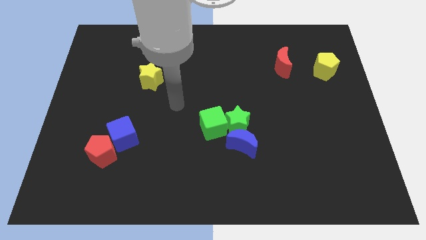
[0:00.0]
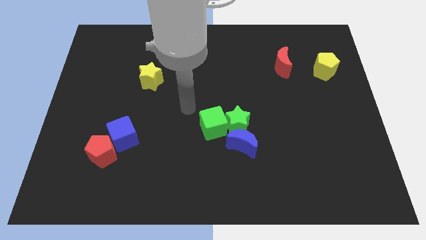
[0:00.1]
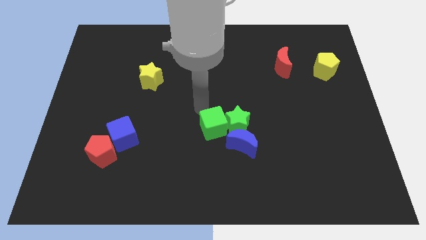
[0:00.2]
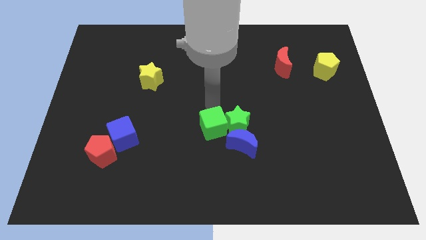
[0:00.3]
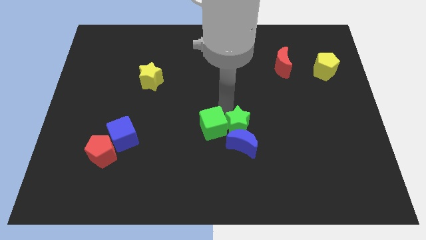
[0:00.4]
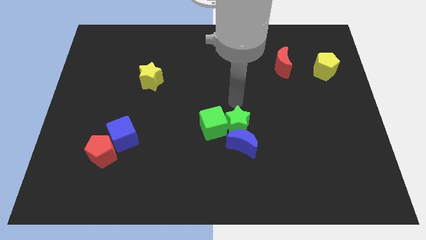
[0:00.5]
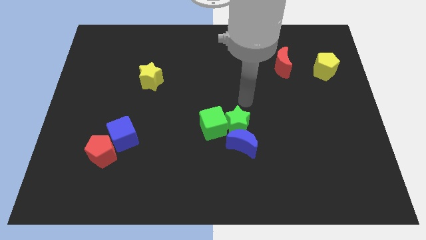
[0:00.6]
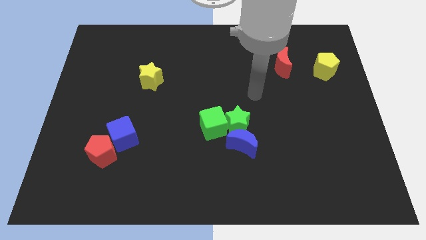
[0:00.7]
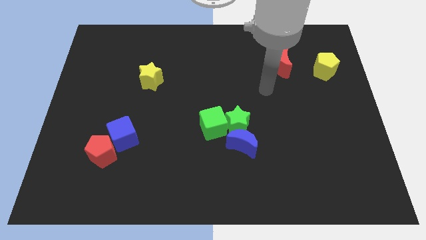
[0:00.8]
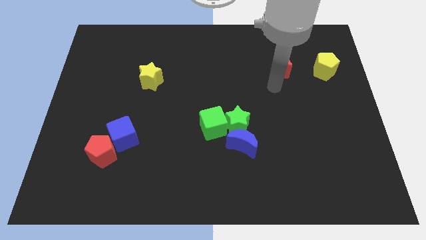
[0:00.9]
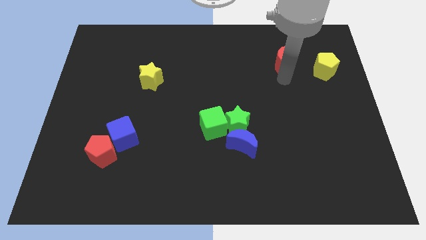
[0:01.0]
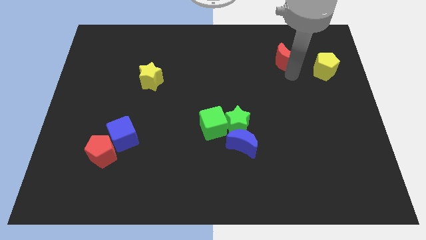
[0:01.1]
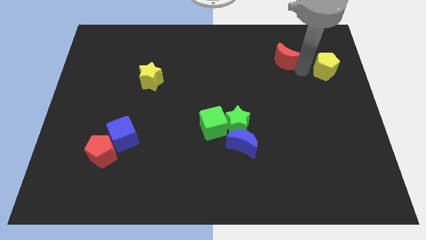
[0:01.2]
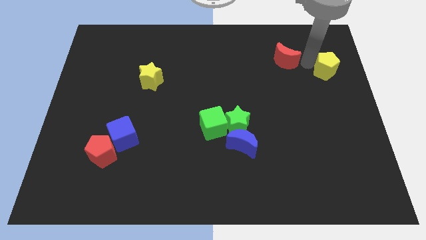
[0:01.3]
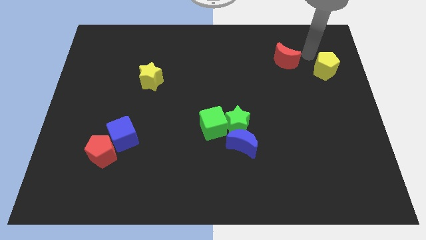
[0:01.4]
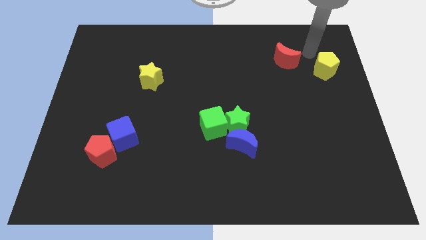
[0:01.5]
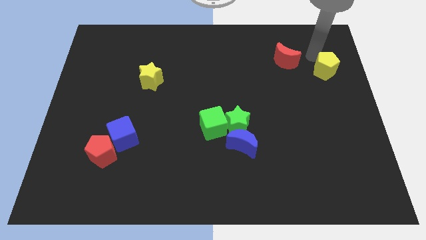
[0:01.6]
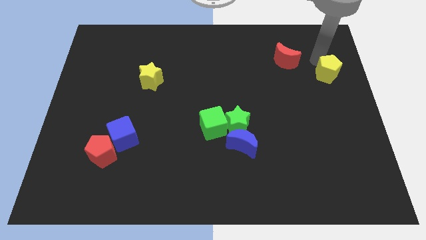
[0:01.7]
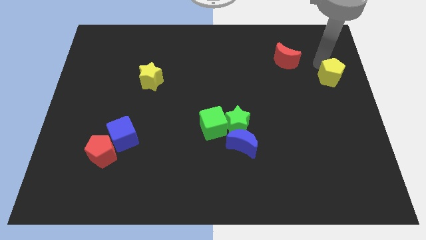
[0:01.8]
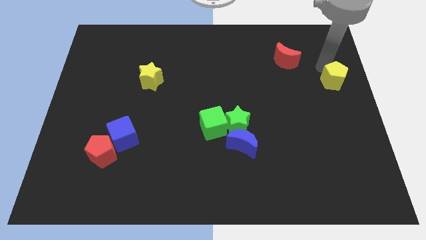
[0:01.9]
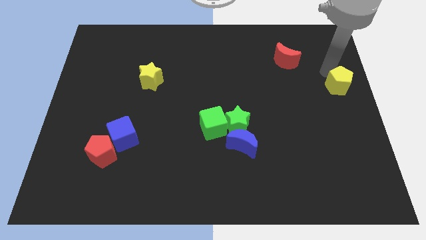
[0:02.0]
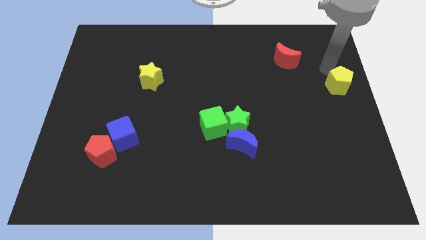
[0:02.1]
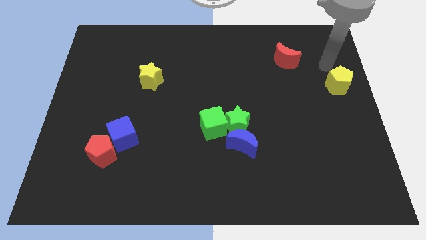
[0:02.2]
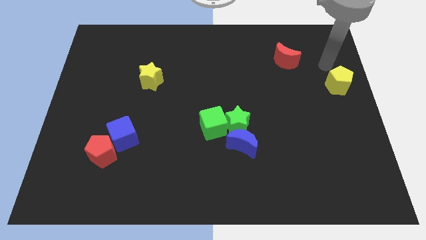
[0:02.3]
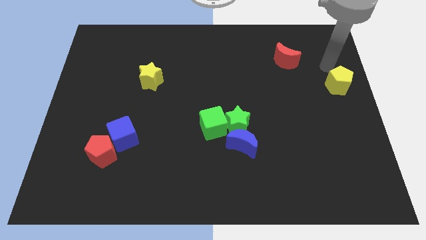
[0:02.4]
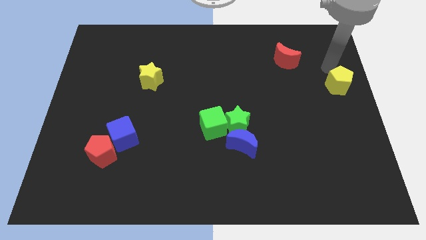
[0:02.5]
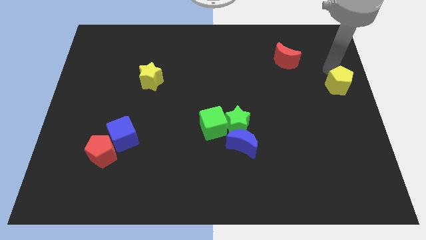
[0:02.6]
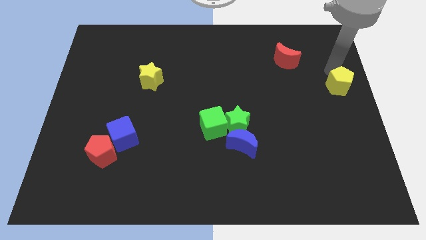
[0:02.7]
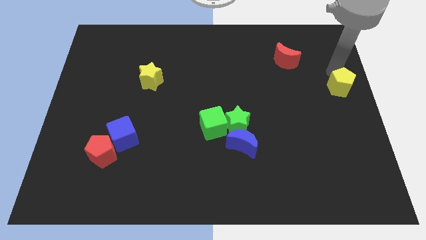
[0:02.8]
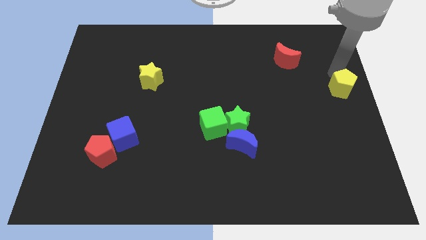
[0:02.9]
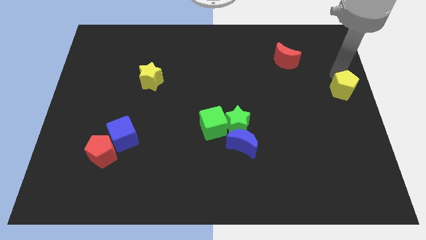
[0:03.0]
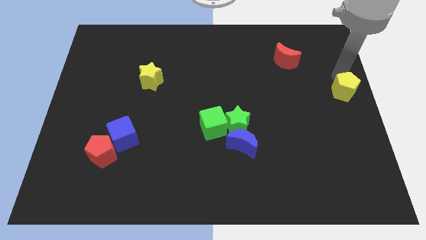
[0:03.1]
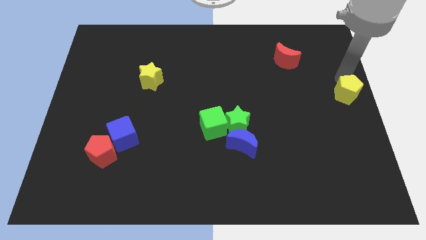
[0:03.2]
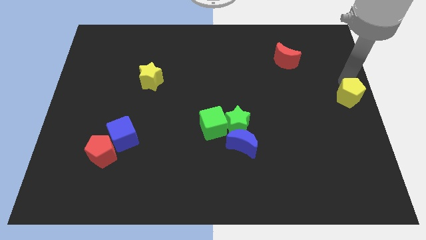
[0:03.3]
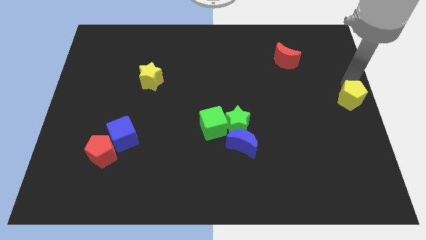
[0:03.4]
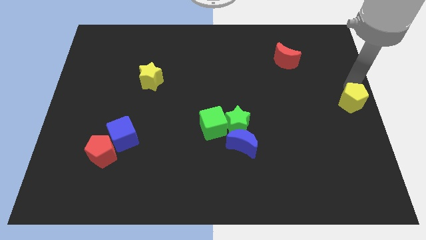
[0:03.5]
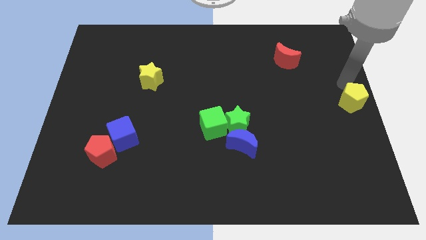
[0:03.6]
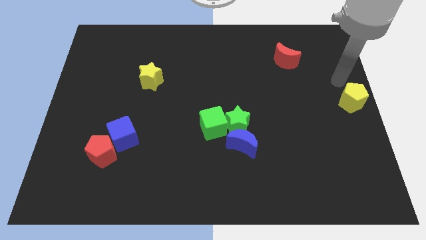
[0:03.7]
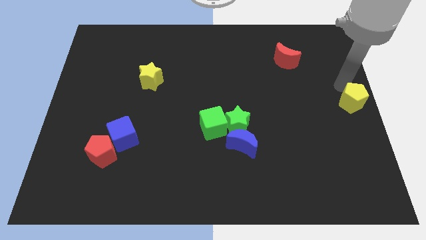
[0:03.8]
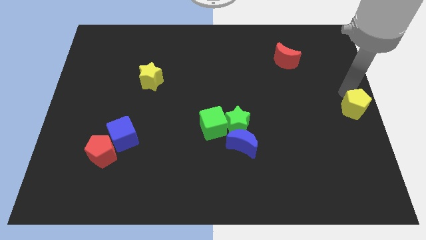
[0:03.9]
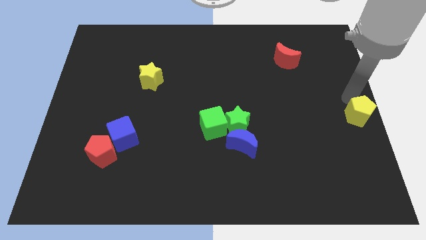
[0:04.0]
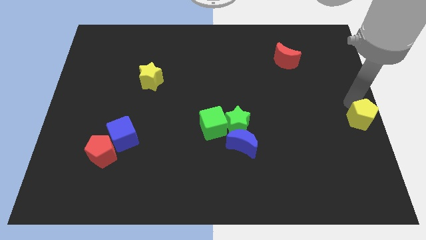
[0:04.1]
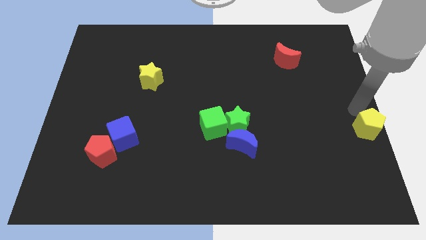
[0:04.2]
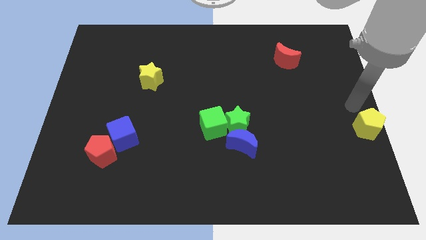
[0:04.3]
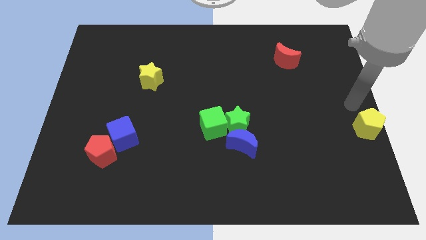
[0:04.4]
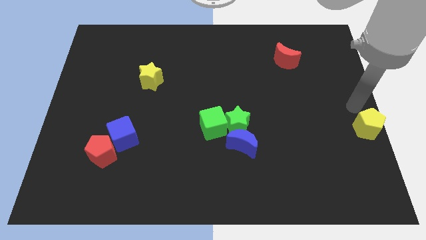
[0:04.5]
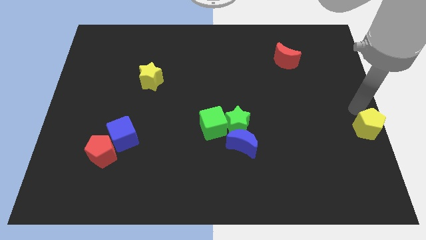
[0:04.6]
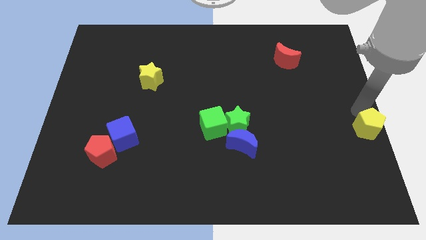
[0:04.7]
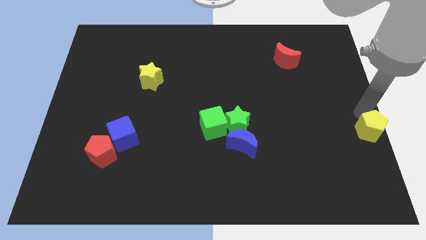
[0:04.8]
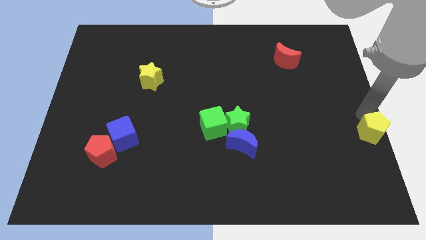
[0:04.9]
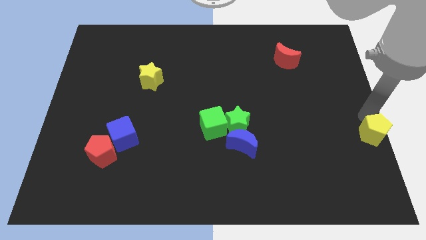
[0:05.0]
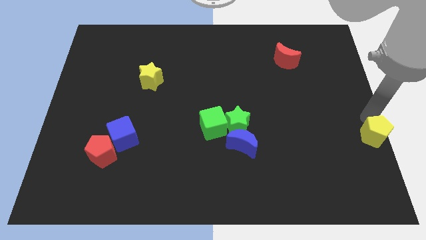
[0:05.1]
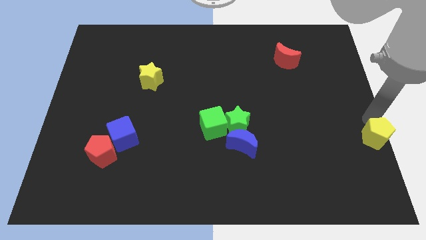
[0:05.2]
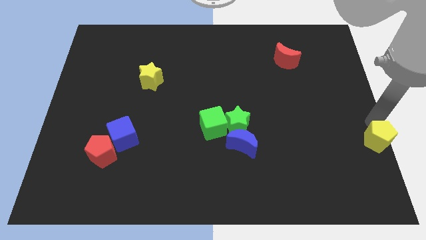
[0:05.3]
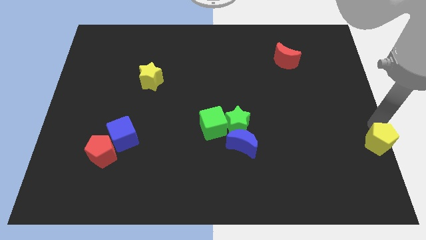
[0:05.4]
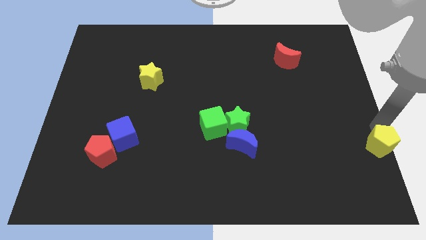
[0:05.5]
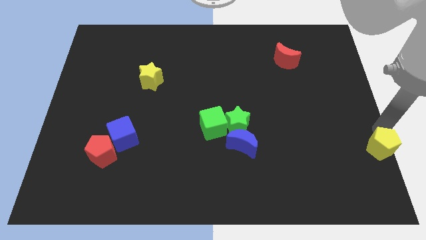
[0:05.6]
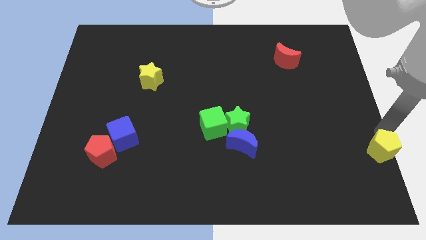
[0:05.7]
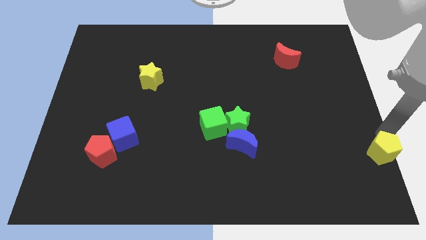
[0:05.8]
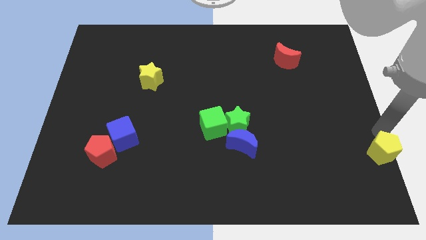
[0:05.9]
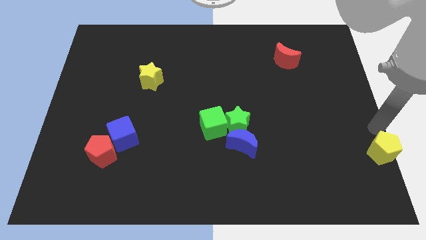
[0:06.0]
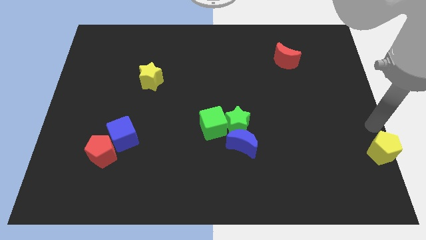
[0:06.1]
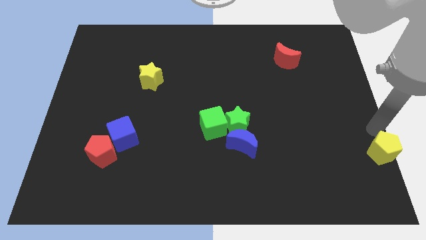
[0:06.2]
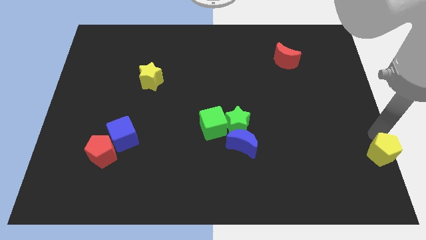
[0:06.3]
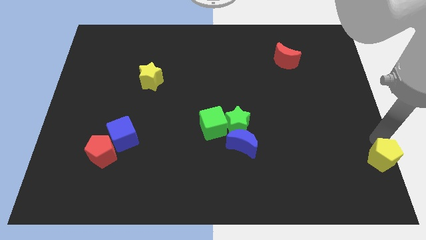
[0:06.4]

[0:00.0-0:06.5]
move the yellow pentagon to the bottom right corner

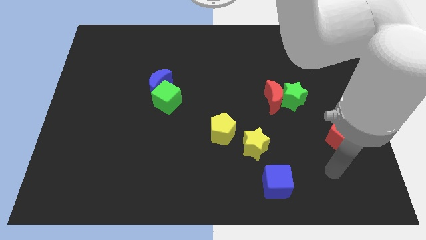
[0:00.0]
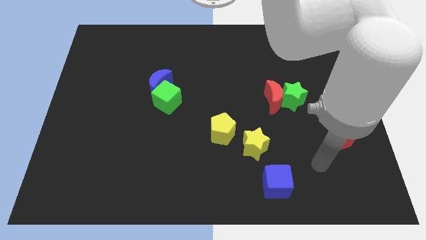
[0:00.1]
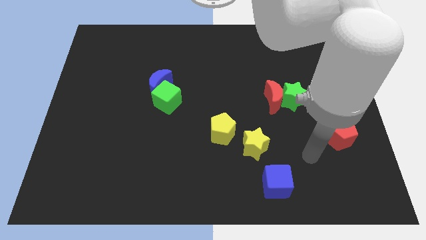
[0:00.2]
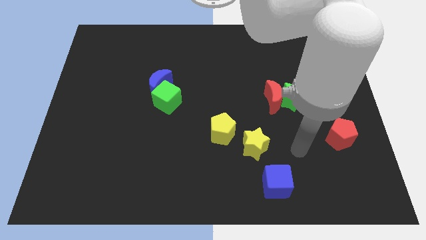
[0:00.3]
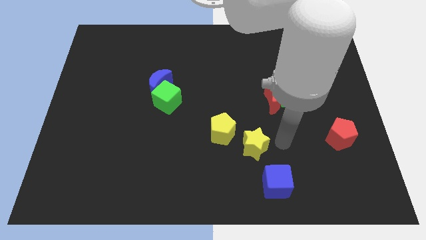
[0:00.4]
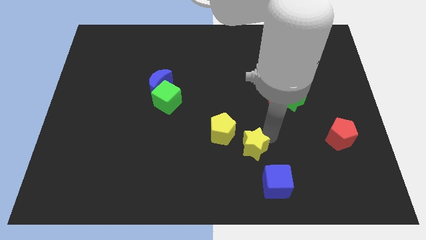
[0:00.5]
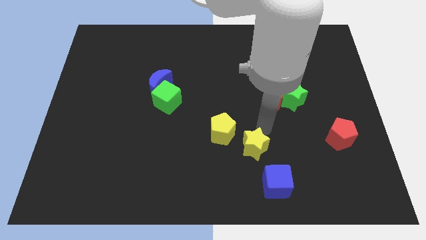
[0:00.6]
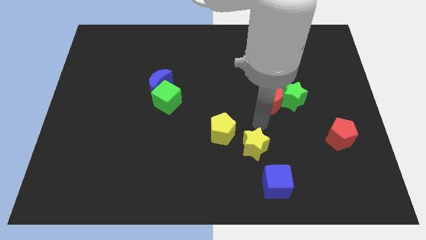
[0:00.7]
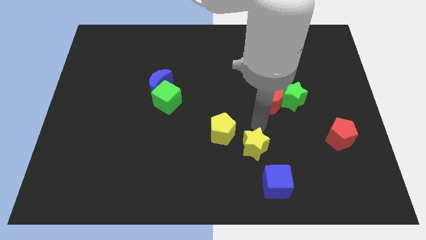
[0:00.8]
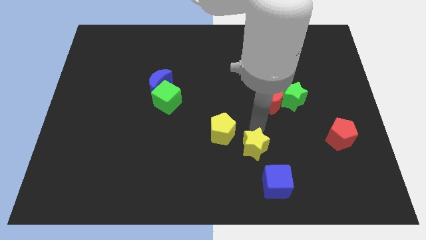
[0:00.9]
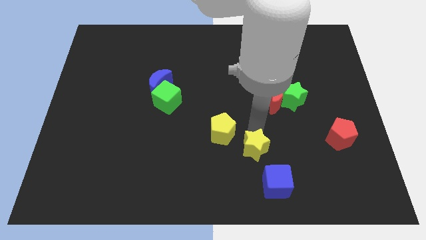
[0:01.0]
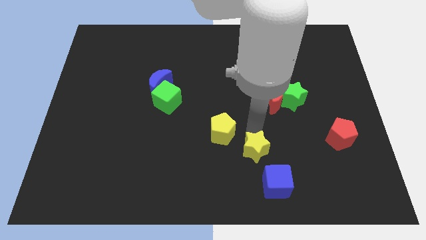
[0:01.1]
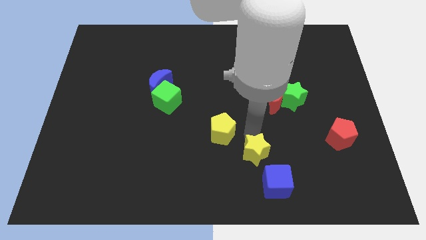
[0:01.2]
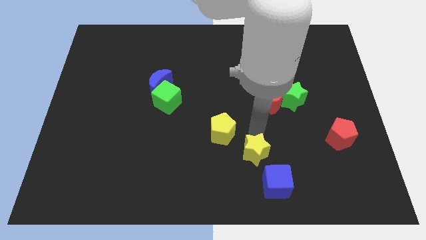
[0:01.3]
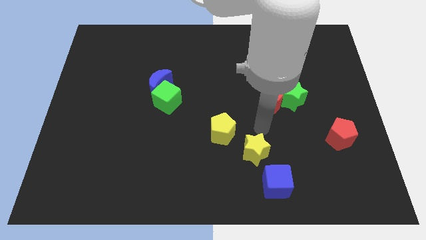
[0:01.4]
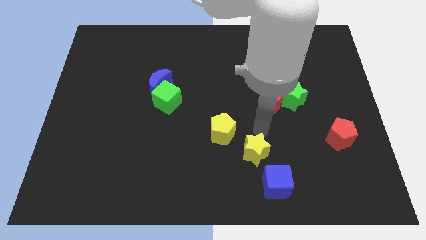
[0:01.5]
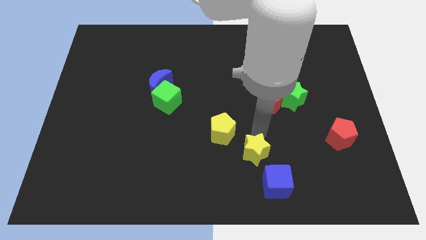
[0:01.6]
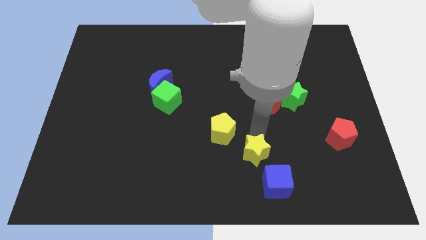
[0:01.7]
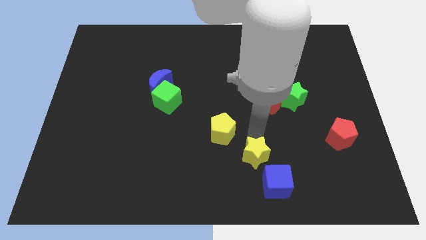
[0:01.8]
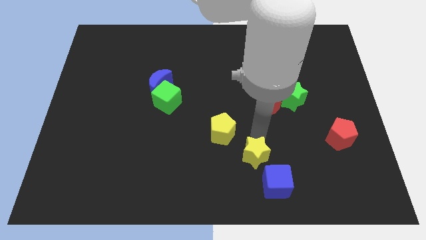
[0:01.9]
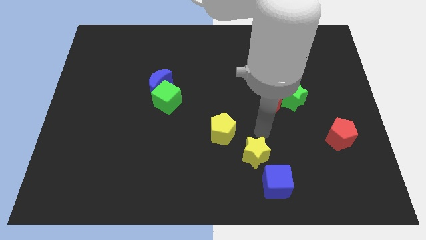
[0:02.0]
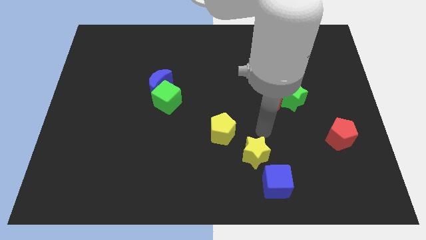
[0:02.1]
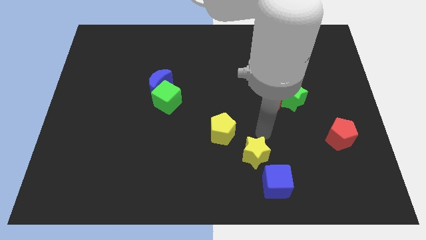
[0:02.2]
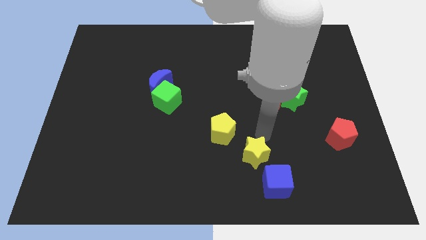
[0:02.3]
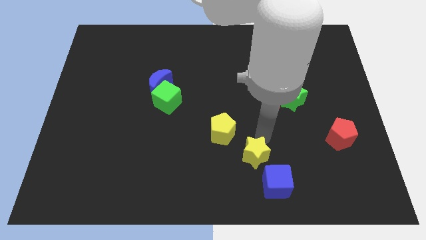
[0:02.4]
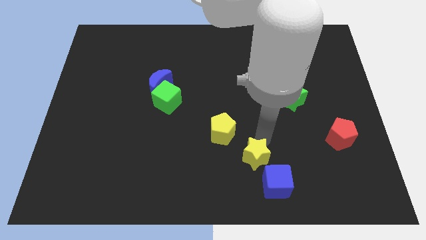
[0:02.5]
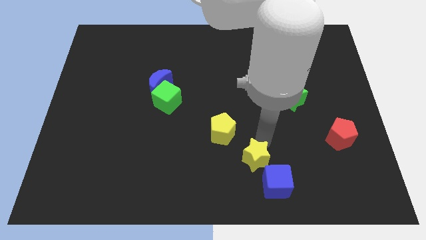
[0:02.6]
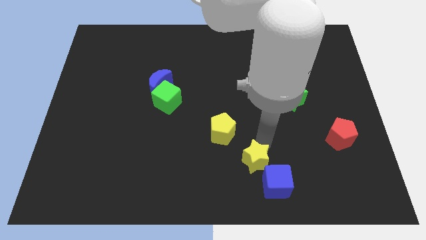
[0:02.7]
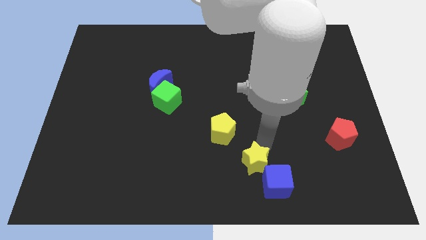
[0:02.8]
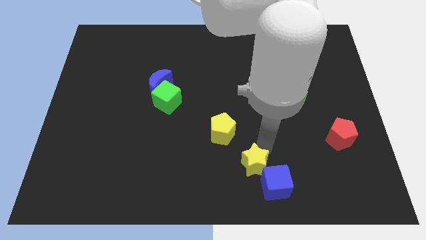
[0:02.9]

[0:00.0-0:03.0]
put the yellow star to the bottom side
